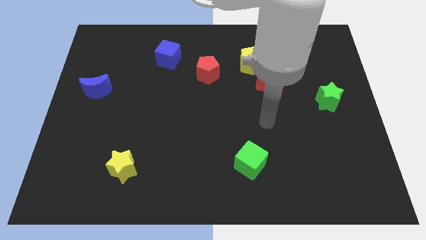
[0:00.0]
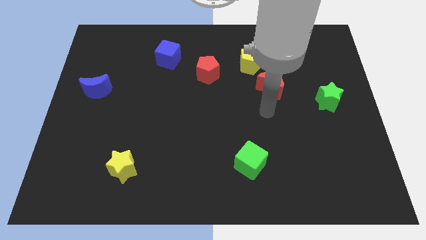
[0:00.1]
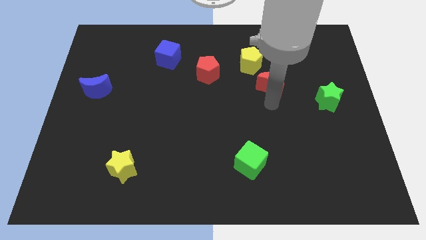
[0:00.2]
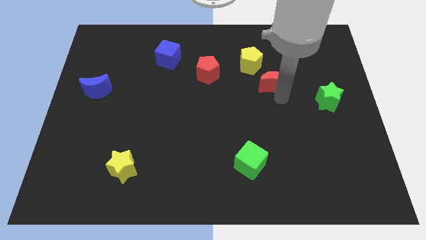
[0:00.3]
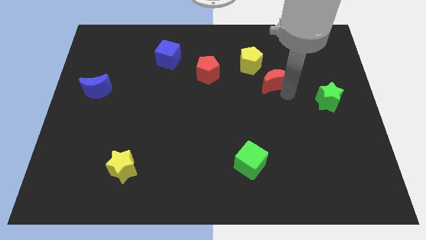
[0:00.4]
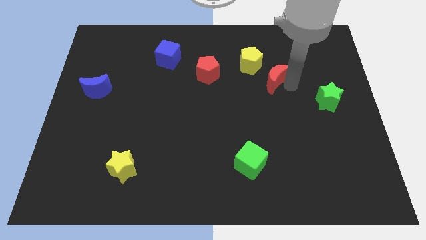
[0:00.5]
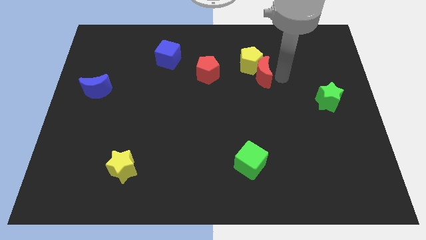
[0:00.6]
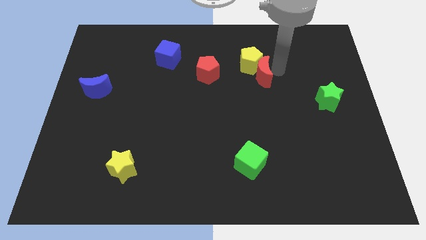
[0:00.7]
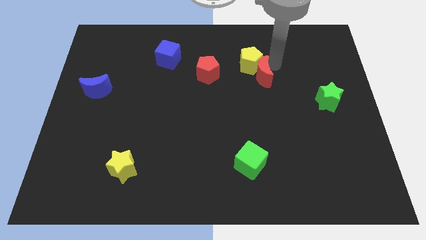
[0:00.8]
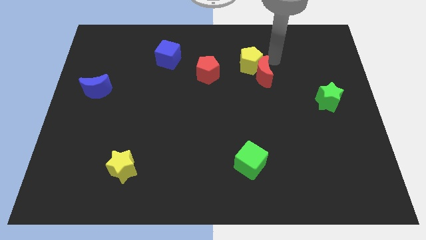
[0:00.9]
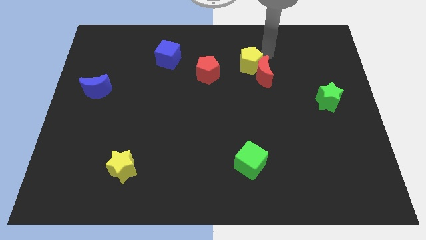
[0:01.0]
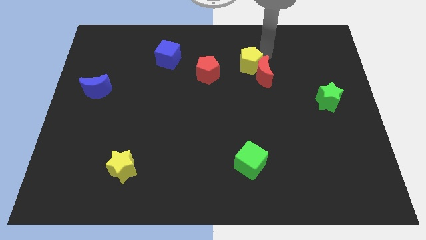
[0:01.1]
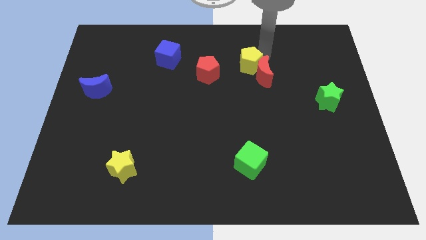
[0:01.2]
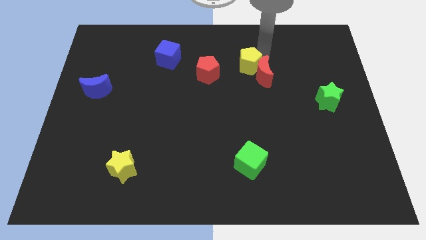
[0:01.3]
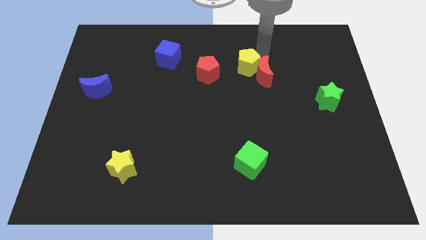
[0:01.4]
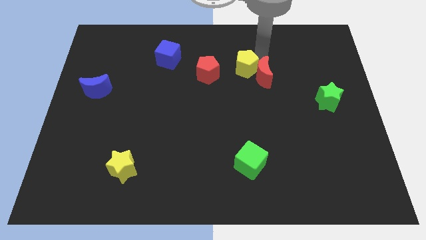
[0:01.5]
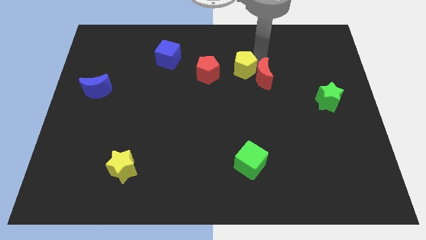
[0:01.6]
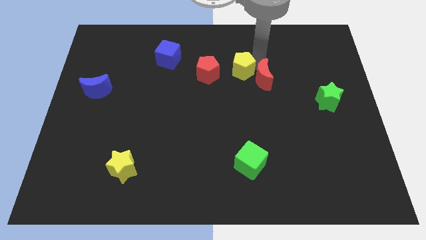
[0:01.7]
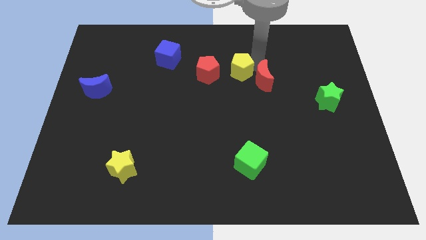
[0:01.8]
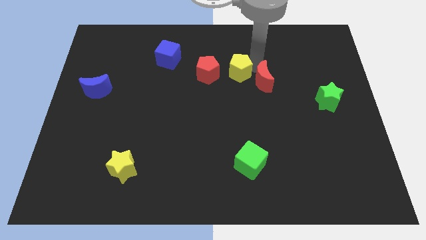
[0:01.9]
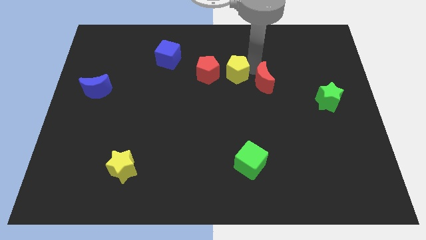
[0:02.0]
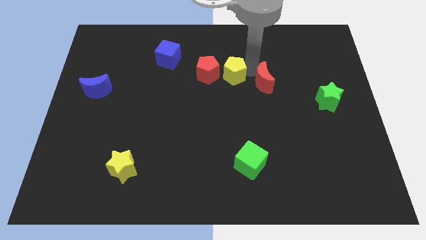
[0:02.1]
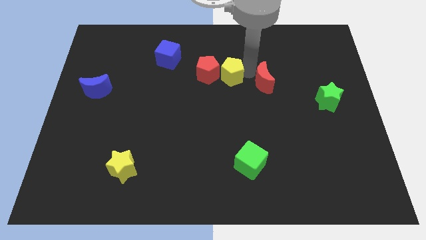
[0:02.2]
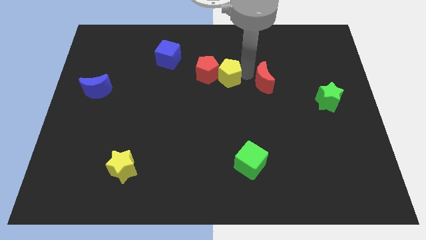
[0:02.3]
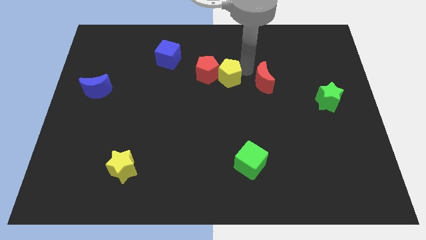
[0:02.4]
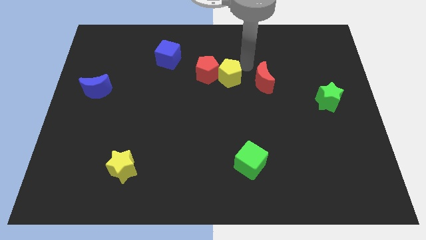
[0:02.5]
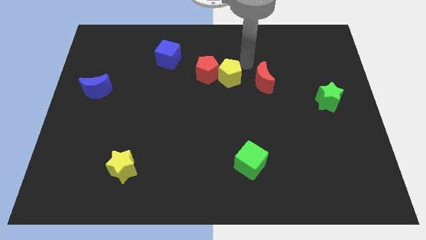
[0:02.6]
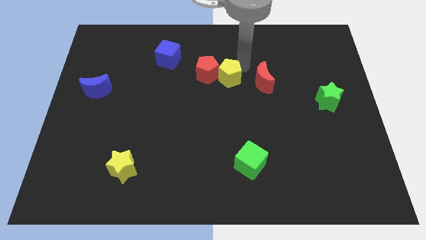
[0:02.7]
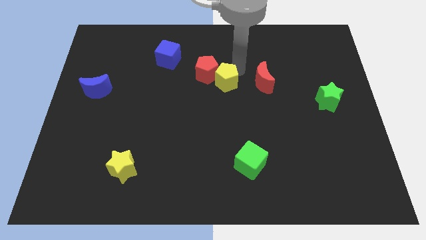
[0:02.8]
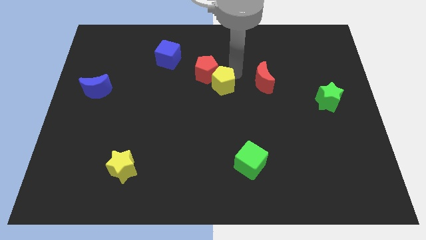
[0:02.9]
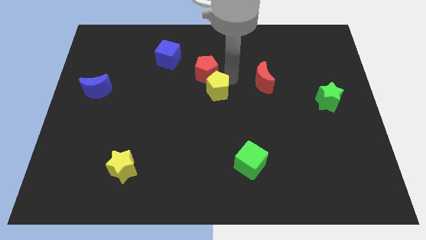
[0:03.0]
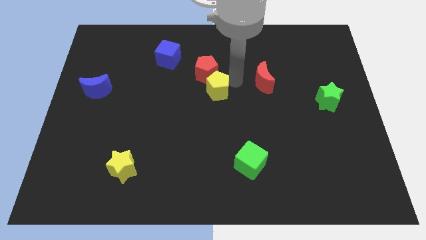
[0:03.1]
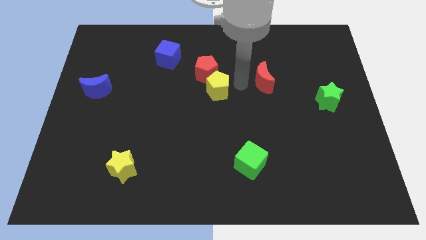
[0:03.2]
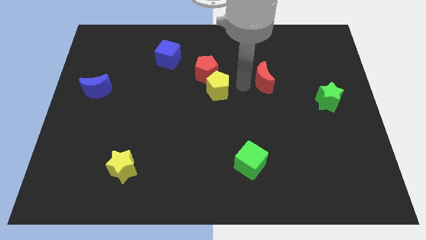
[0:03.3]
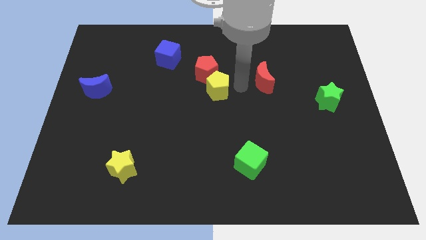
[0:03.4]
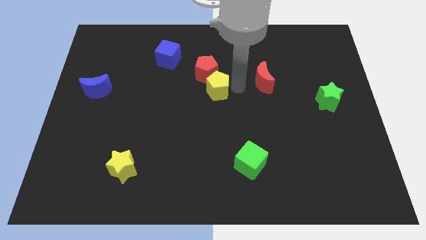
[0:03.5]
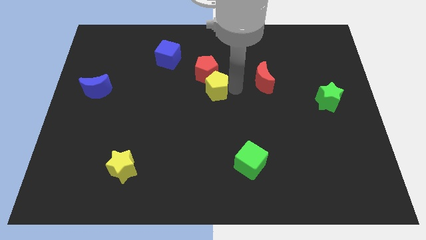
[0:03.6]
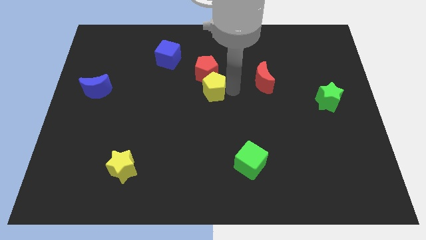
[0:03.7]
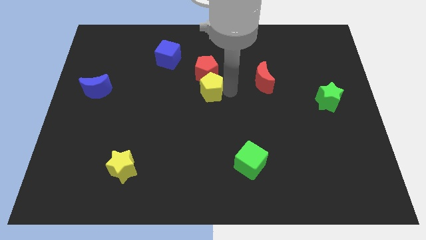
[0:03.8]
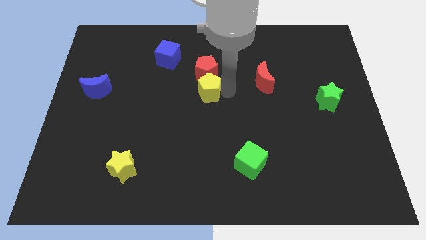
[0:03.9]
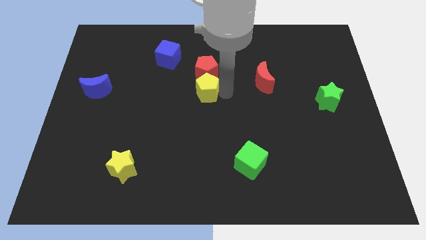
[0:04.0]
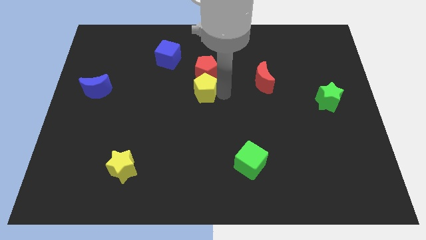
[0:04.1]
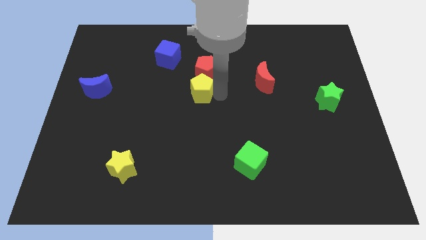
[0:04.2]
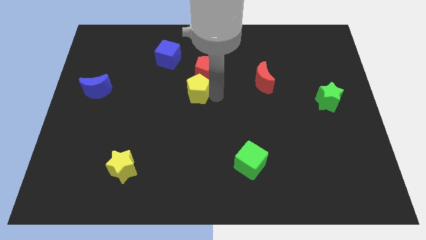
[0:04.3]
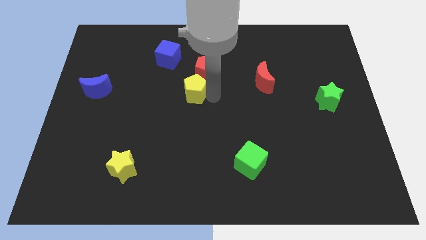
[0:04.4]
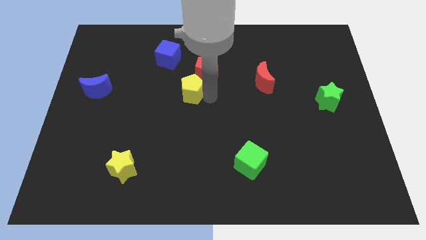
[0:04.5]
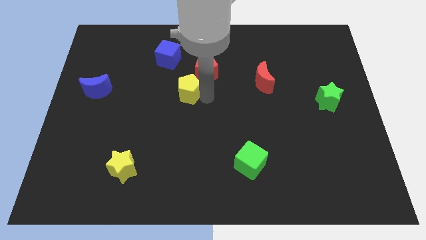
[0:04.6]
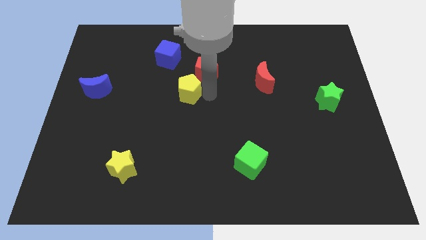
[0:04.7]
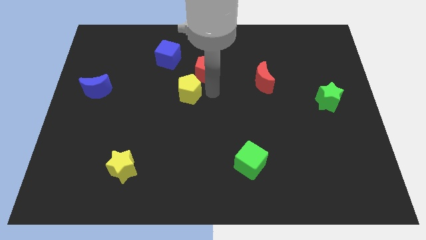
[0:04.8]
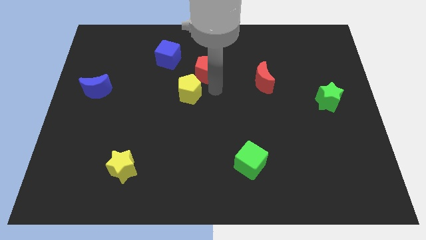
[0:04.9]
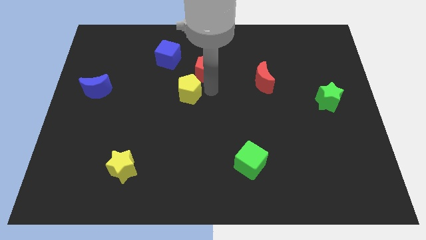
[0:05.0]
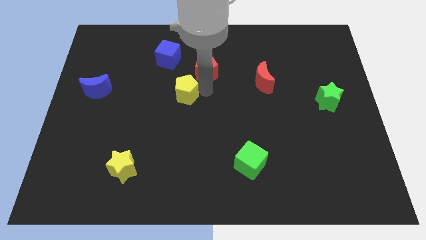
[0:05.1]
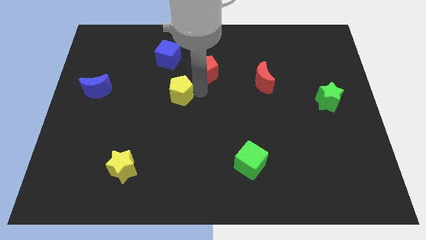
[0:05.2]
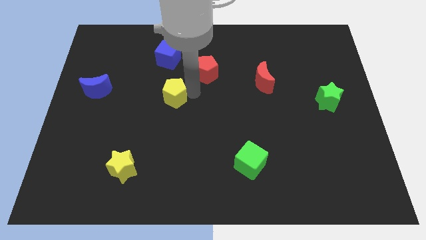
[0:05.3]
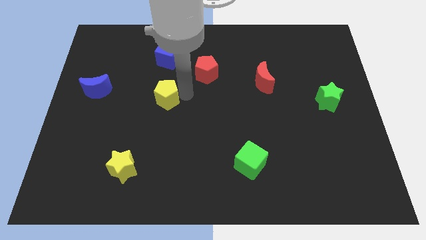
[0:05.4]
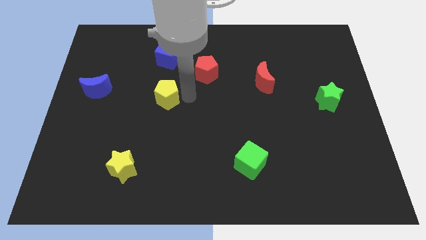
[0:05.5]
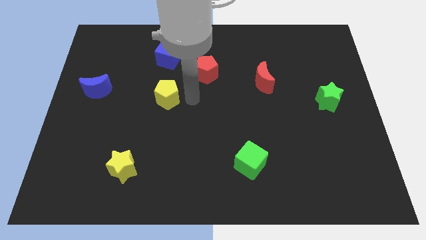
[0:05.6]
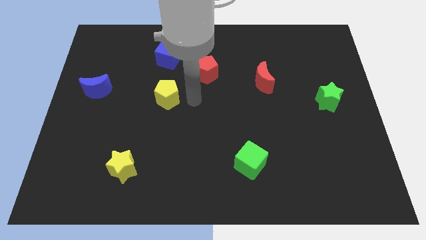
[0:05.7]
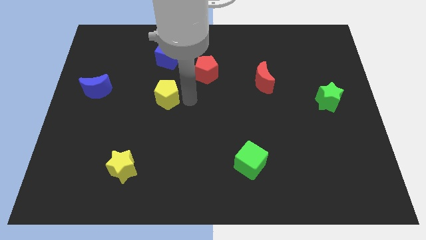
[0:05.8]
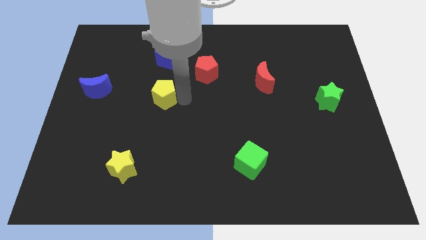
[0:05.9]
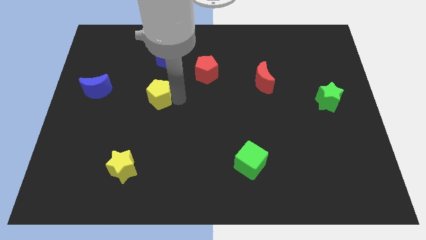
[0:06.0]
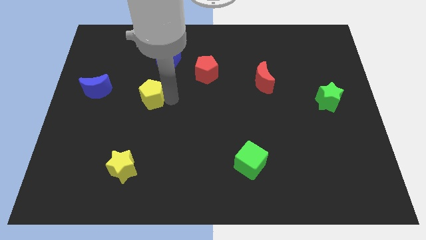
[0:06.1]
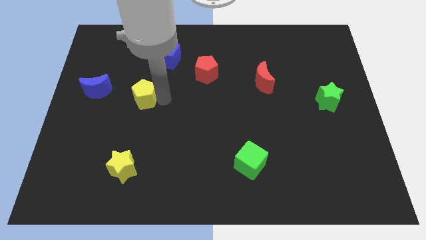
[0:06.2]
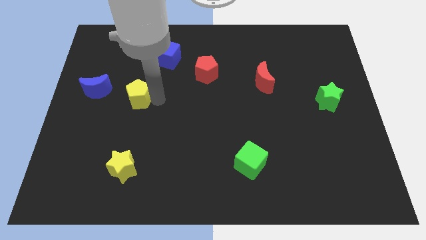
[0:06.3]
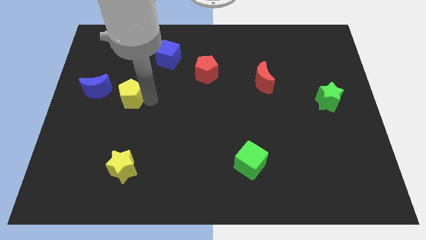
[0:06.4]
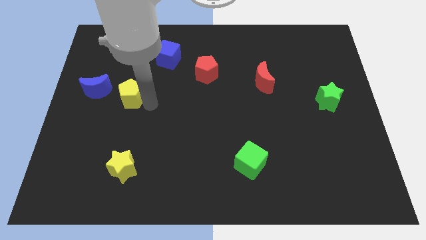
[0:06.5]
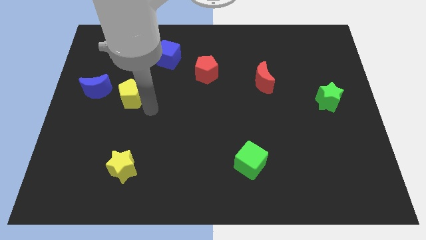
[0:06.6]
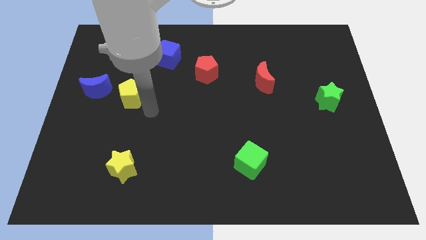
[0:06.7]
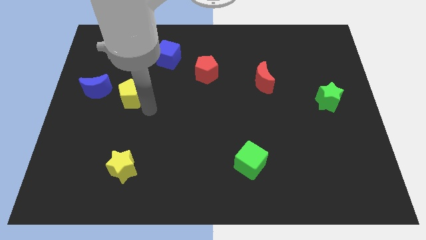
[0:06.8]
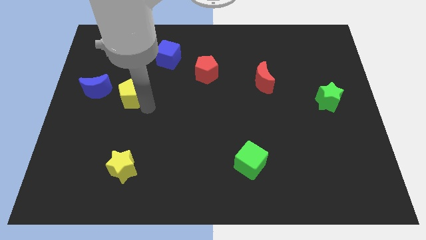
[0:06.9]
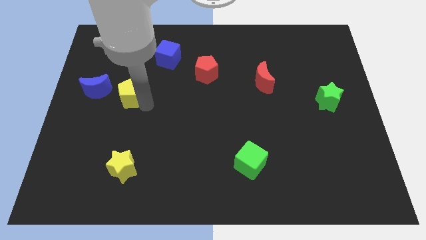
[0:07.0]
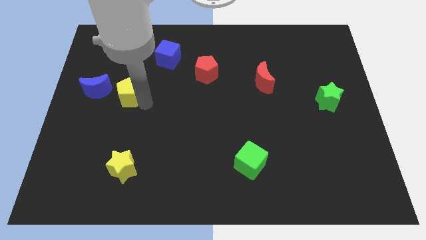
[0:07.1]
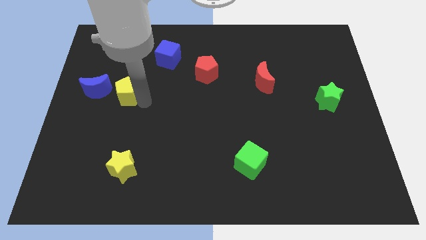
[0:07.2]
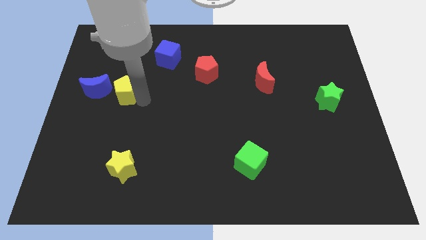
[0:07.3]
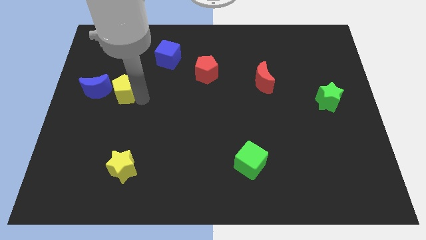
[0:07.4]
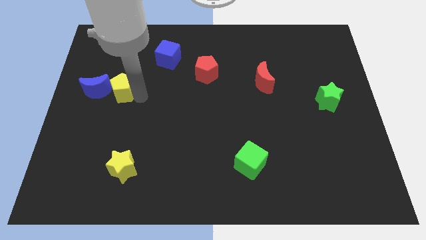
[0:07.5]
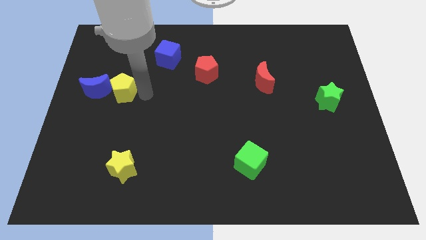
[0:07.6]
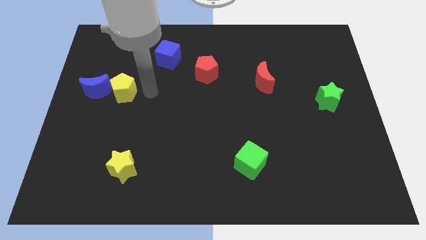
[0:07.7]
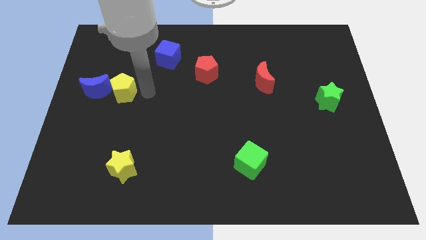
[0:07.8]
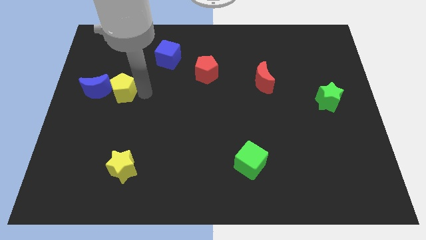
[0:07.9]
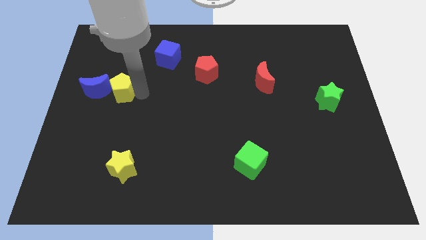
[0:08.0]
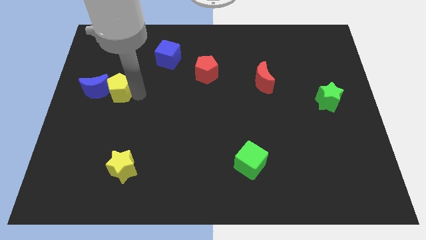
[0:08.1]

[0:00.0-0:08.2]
slide the yellow pentagon next to the blue moon
